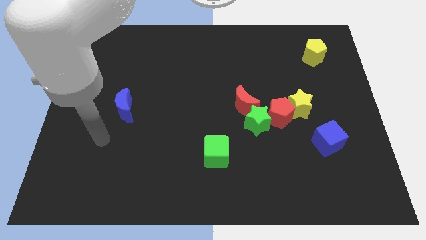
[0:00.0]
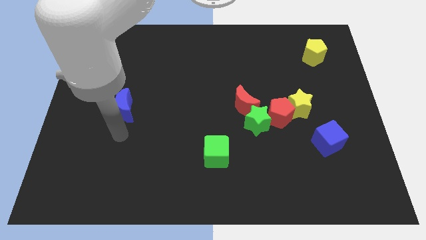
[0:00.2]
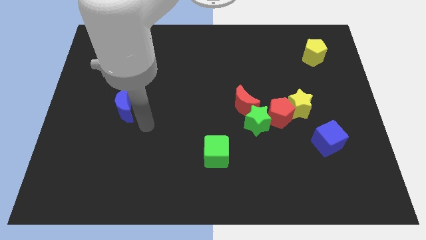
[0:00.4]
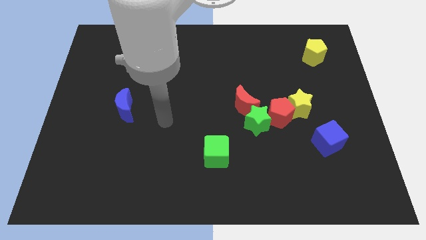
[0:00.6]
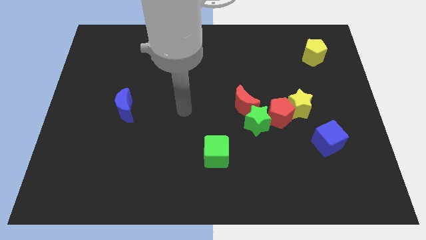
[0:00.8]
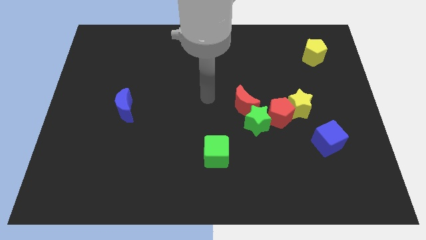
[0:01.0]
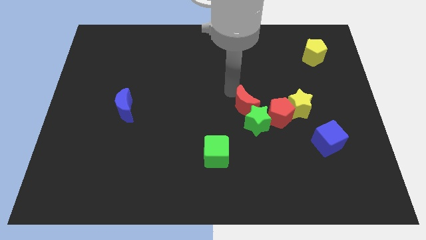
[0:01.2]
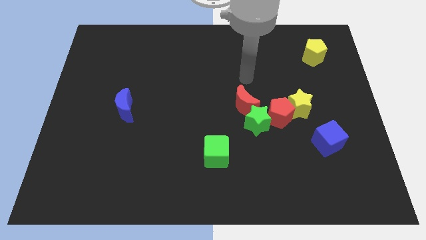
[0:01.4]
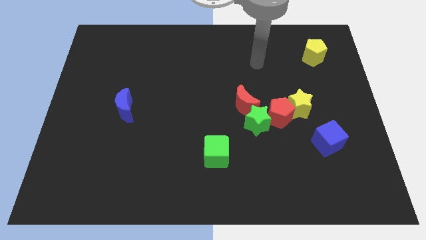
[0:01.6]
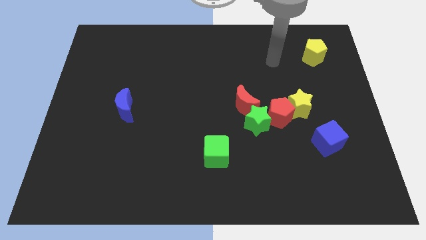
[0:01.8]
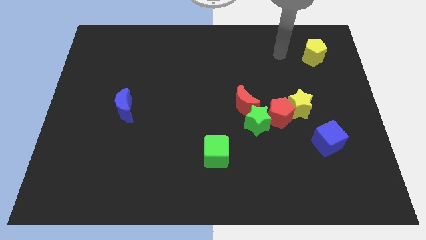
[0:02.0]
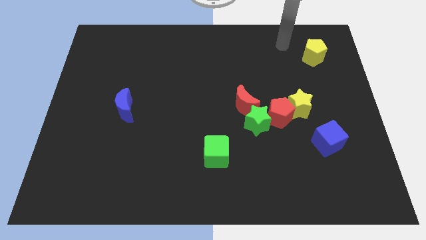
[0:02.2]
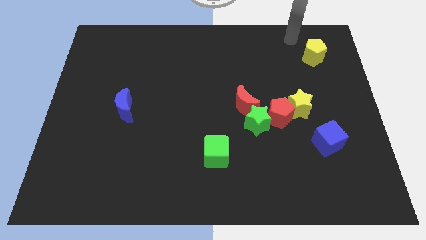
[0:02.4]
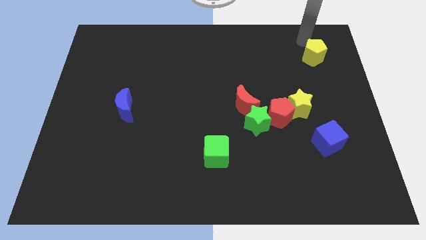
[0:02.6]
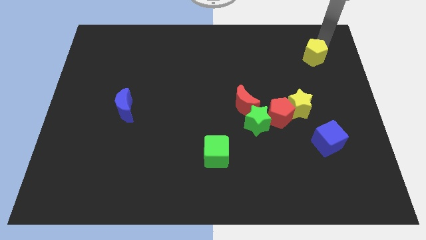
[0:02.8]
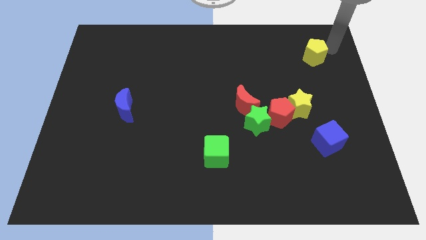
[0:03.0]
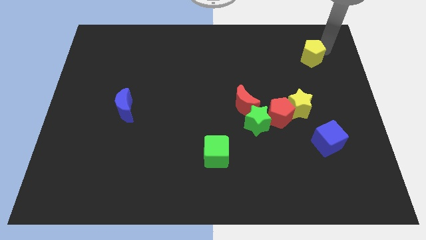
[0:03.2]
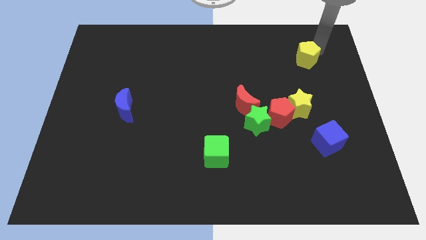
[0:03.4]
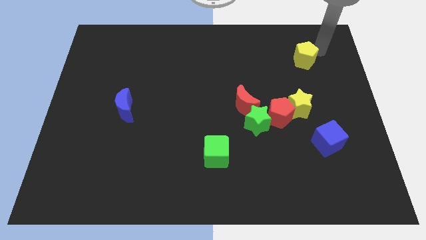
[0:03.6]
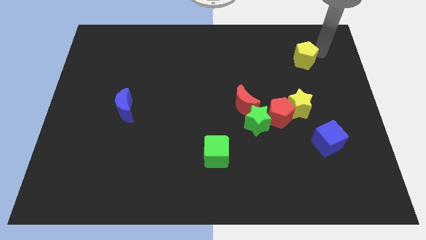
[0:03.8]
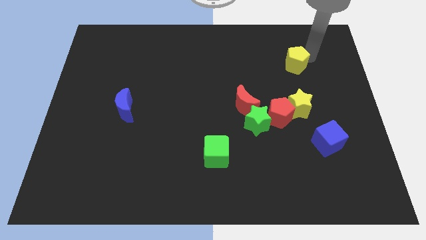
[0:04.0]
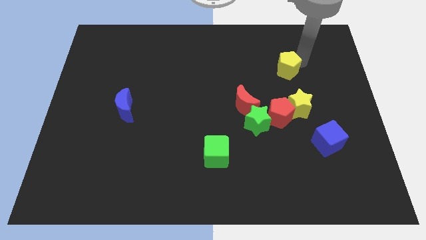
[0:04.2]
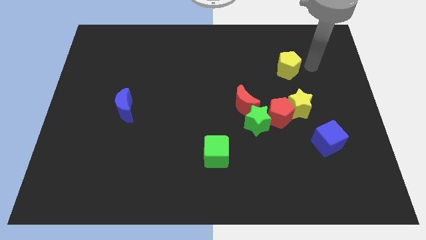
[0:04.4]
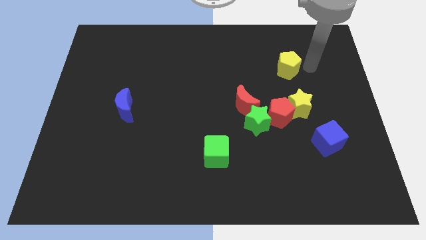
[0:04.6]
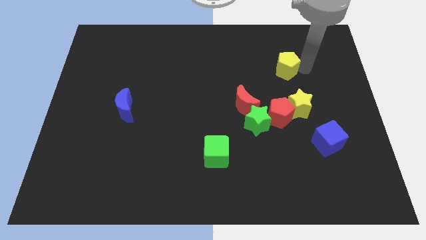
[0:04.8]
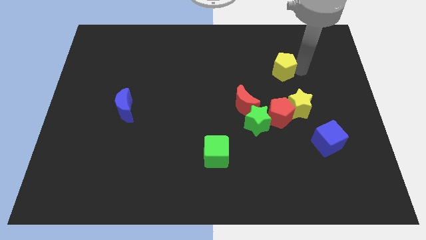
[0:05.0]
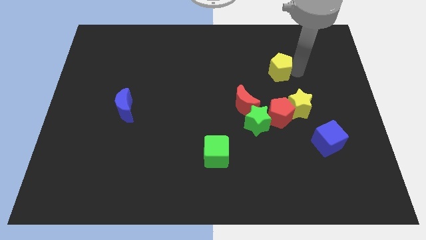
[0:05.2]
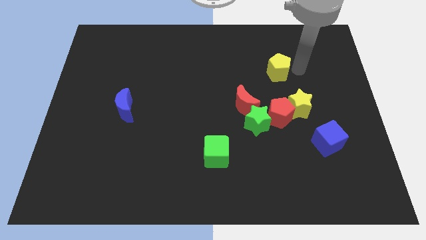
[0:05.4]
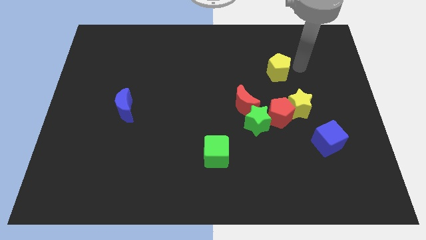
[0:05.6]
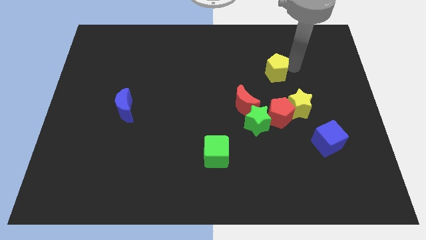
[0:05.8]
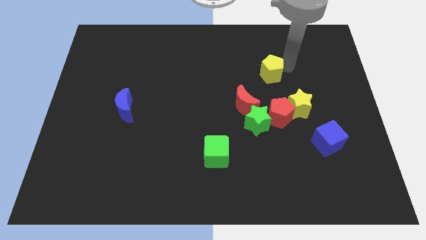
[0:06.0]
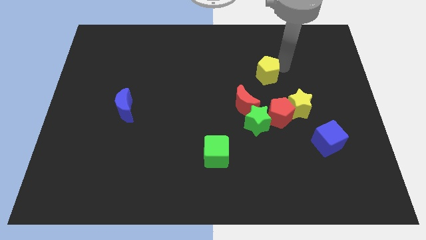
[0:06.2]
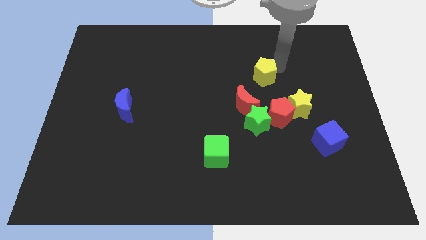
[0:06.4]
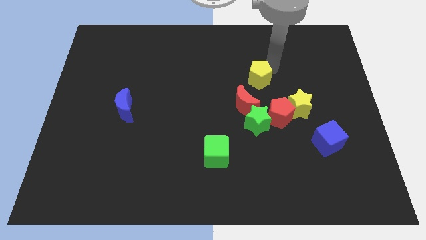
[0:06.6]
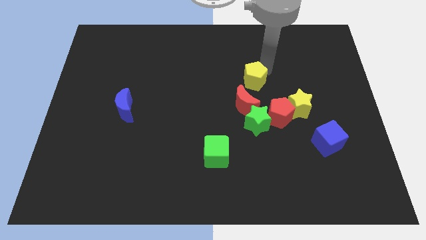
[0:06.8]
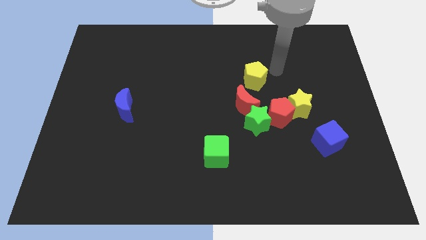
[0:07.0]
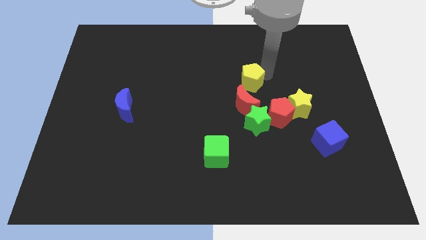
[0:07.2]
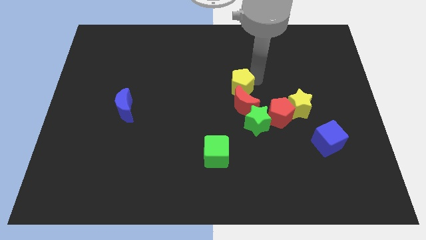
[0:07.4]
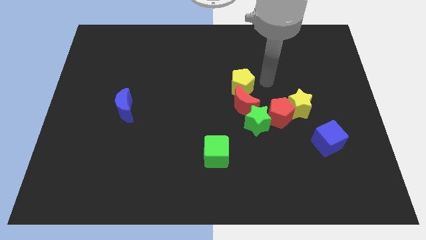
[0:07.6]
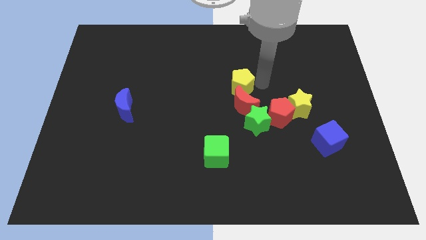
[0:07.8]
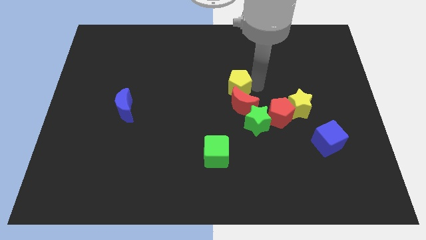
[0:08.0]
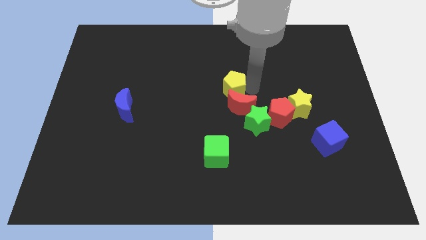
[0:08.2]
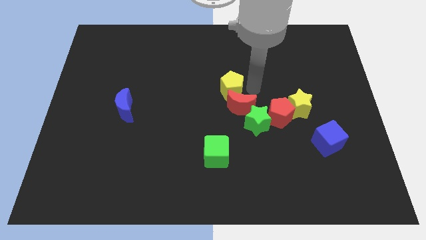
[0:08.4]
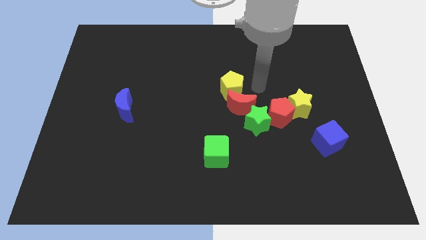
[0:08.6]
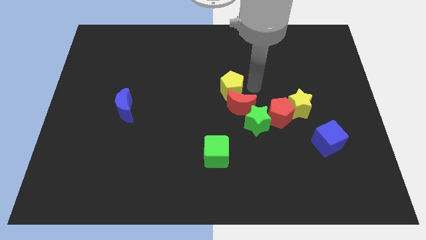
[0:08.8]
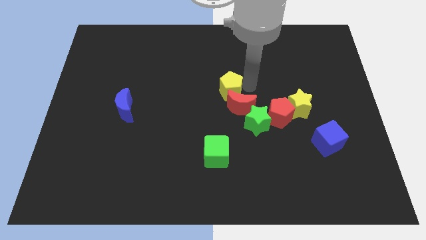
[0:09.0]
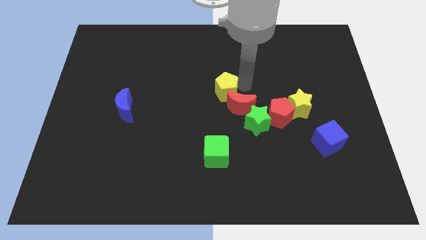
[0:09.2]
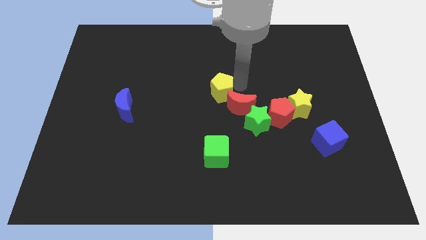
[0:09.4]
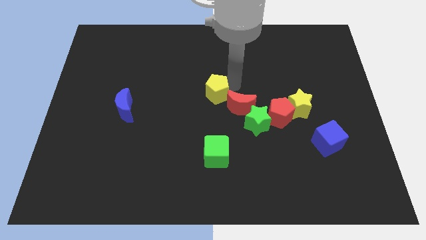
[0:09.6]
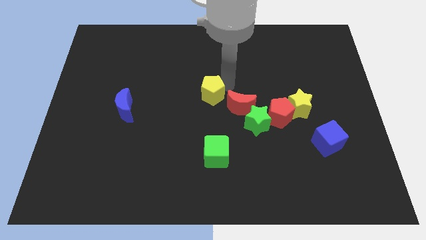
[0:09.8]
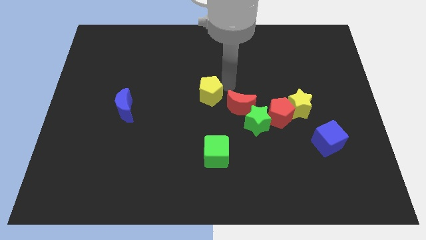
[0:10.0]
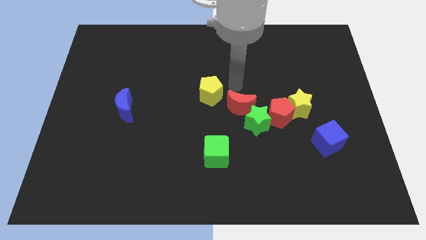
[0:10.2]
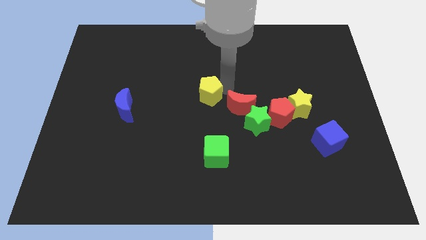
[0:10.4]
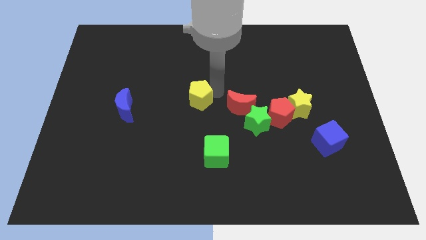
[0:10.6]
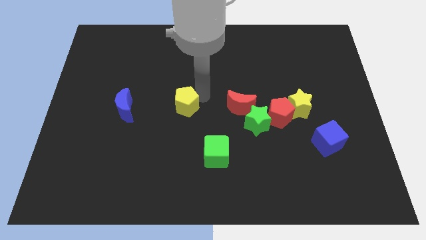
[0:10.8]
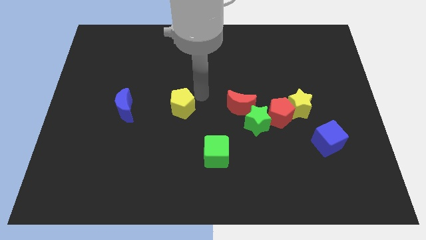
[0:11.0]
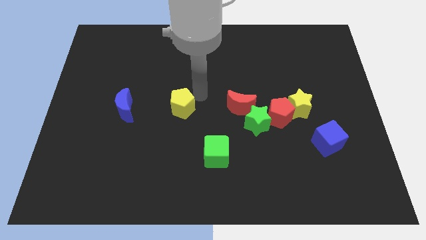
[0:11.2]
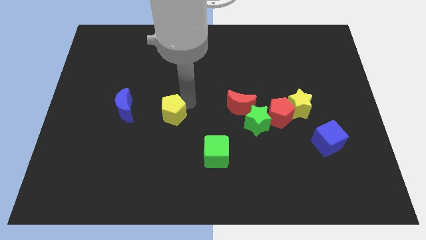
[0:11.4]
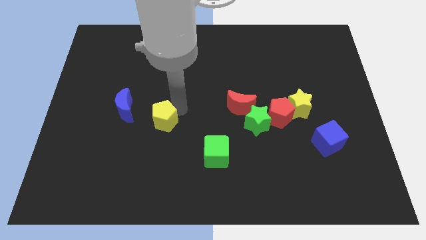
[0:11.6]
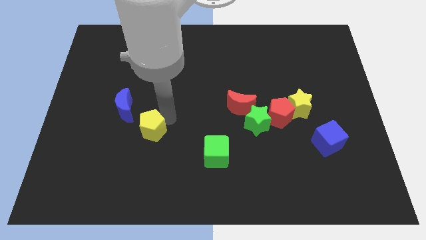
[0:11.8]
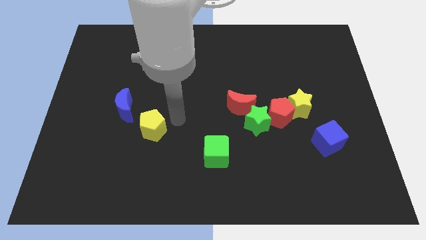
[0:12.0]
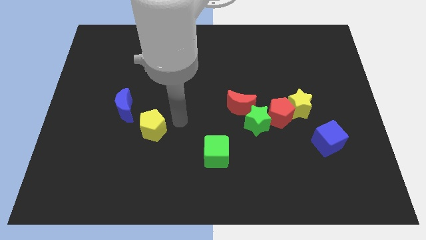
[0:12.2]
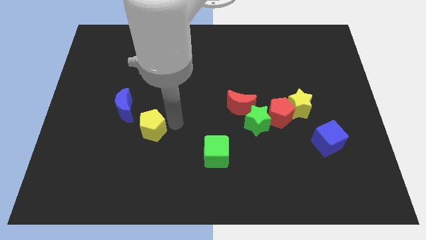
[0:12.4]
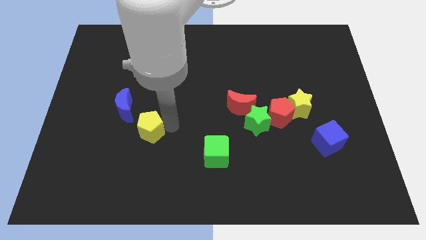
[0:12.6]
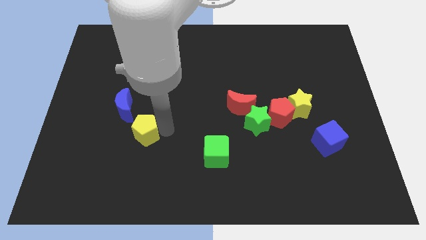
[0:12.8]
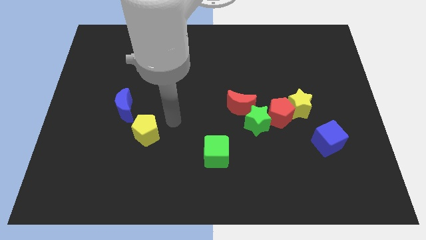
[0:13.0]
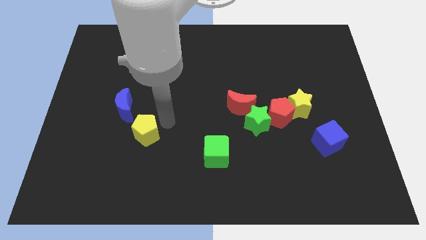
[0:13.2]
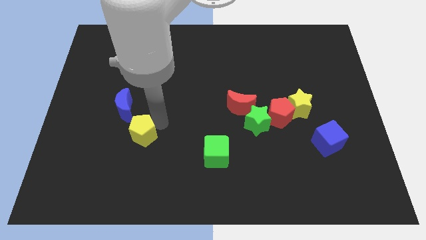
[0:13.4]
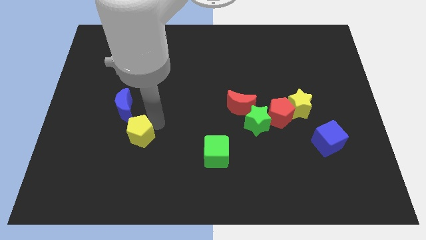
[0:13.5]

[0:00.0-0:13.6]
put the yellow pentagon to the bottom of the blue moon
